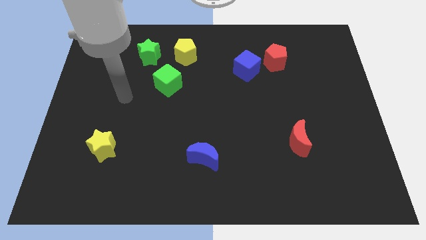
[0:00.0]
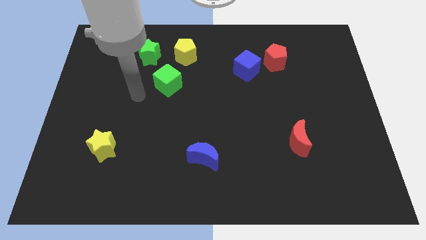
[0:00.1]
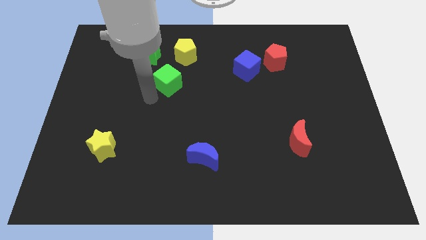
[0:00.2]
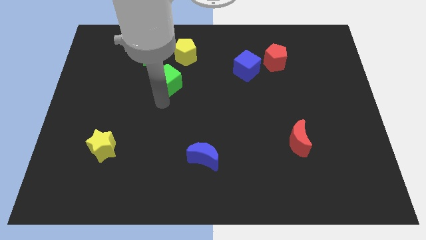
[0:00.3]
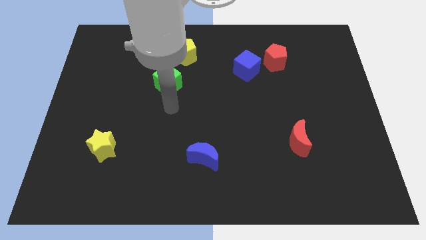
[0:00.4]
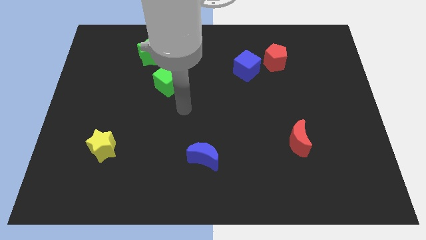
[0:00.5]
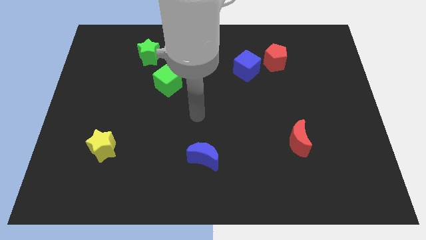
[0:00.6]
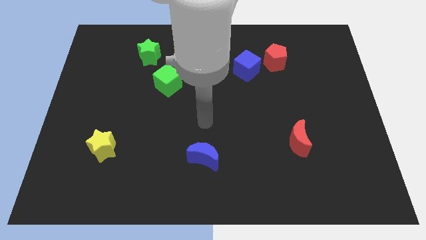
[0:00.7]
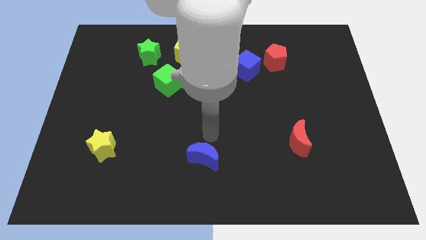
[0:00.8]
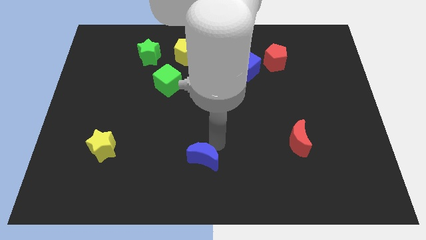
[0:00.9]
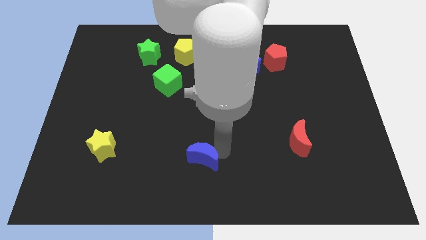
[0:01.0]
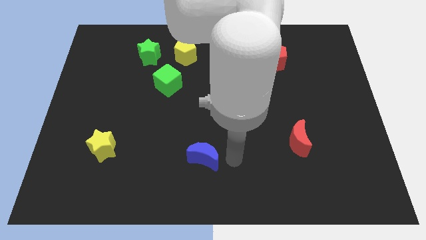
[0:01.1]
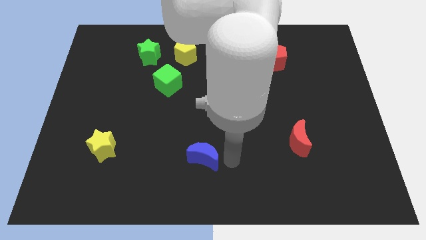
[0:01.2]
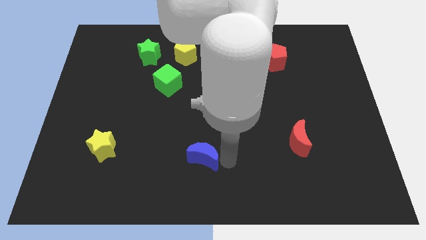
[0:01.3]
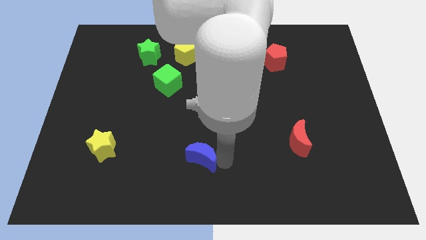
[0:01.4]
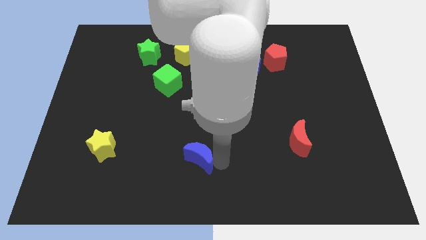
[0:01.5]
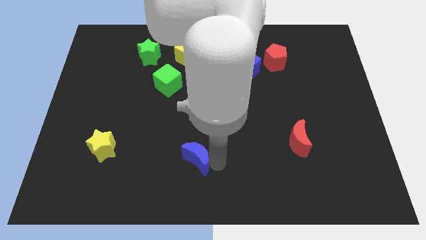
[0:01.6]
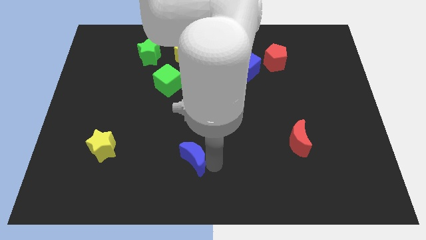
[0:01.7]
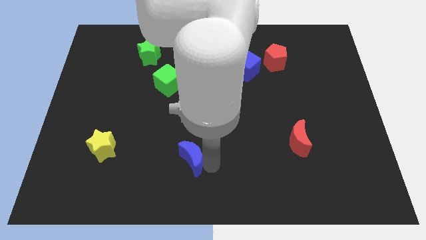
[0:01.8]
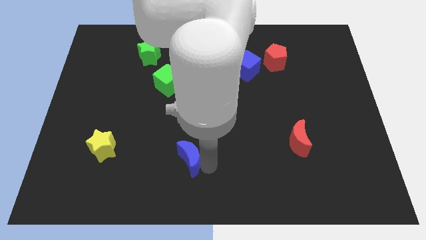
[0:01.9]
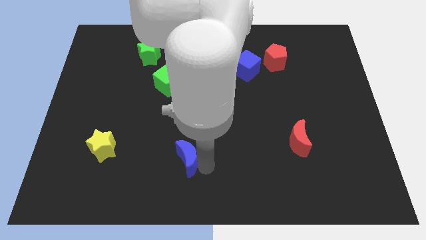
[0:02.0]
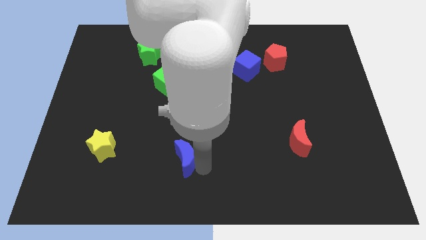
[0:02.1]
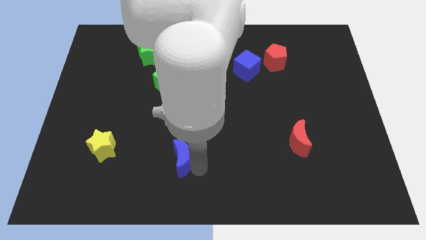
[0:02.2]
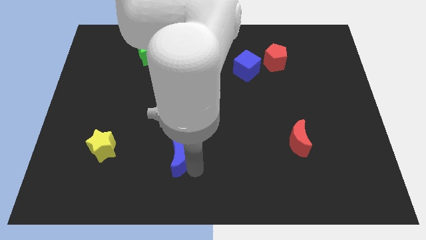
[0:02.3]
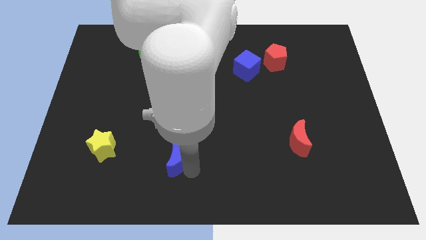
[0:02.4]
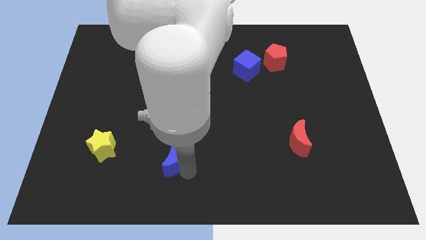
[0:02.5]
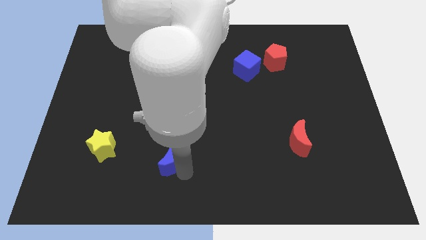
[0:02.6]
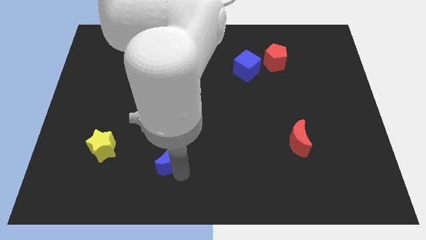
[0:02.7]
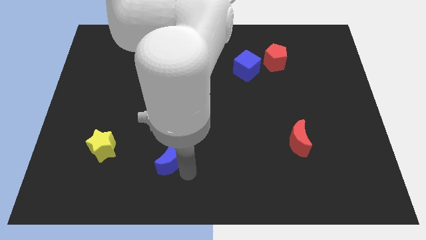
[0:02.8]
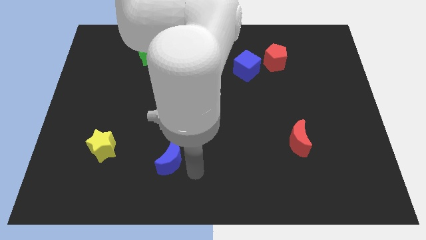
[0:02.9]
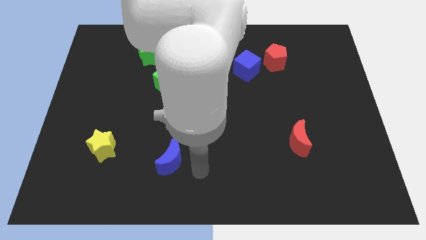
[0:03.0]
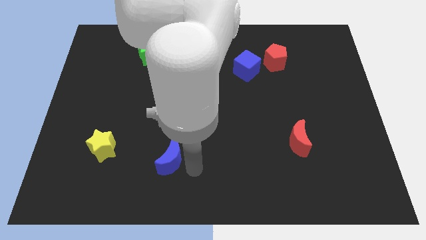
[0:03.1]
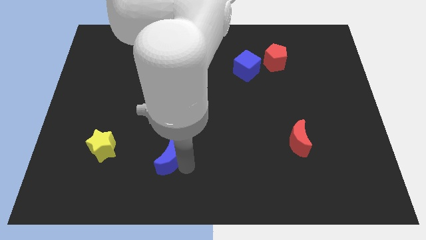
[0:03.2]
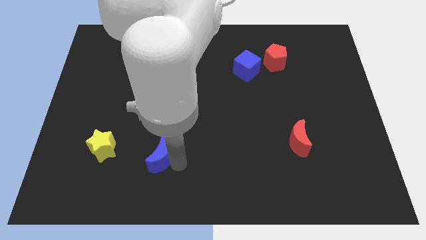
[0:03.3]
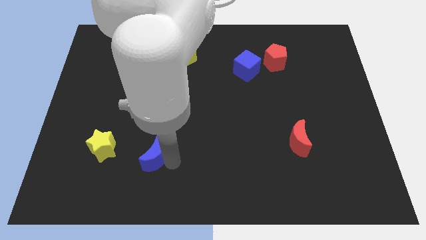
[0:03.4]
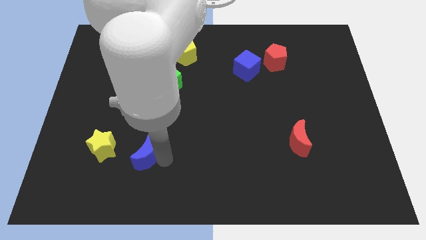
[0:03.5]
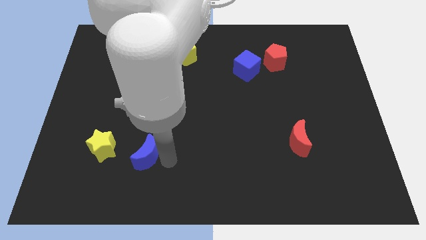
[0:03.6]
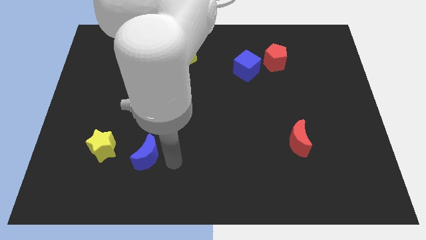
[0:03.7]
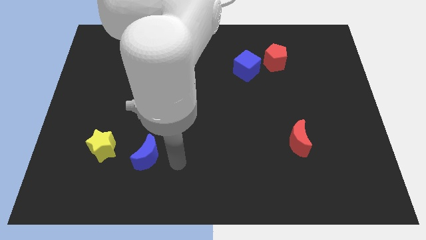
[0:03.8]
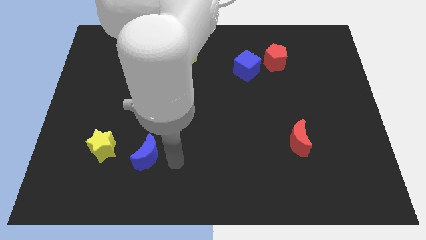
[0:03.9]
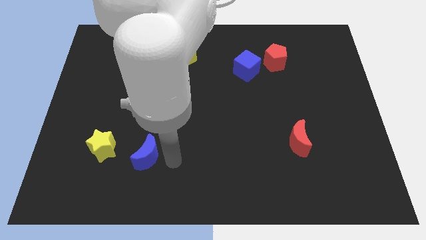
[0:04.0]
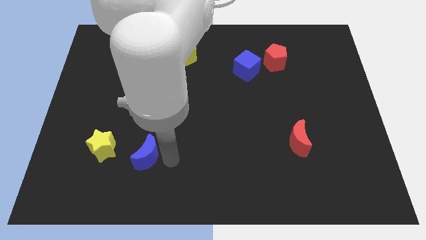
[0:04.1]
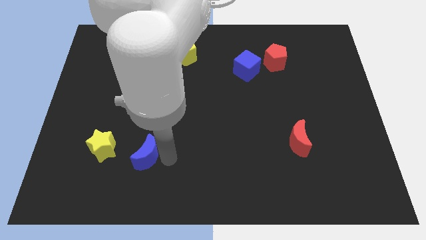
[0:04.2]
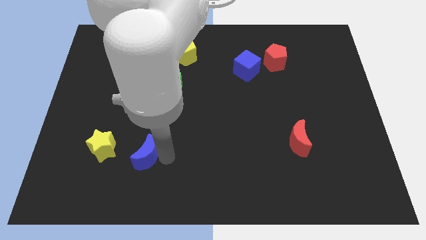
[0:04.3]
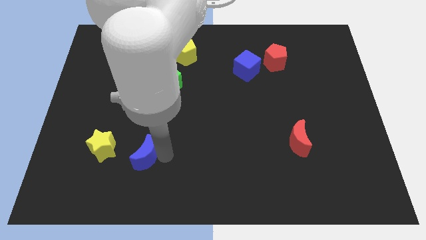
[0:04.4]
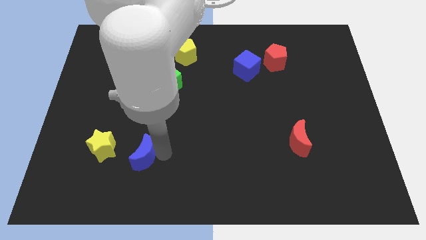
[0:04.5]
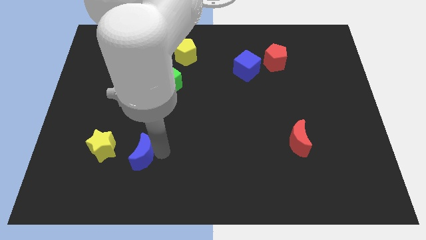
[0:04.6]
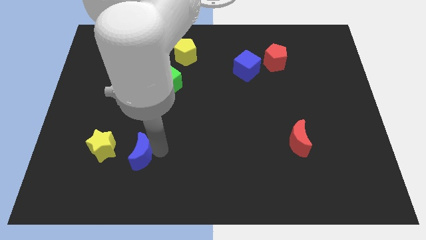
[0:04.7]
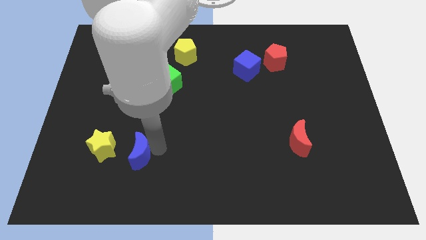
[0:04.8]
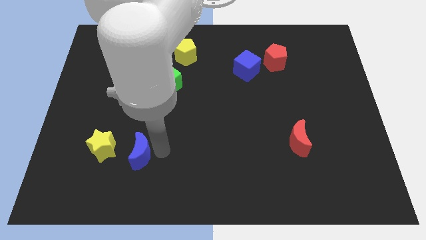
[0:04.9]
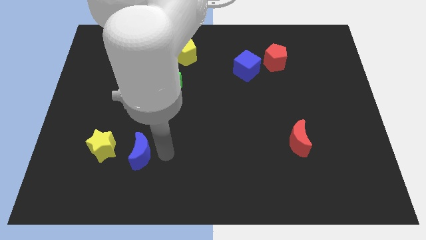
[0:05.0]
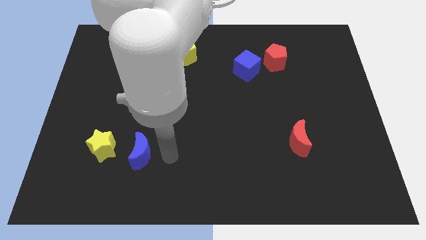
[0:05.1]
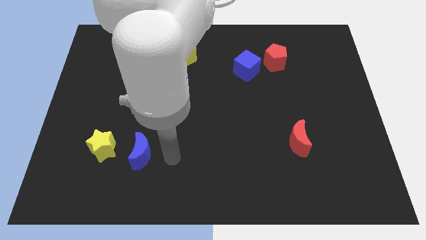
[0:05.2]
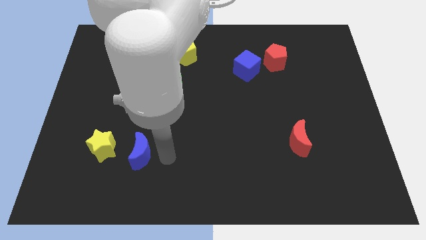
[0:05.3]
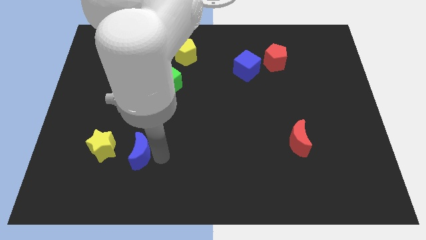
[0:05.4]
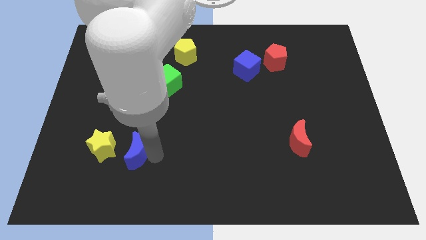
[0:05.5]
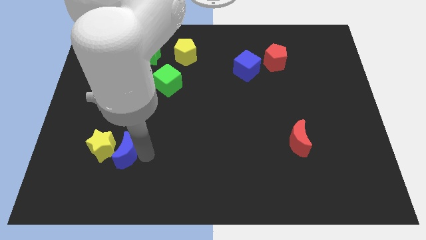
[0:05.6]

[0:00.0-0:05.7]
push the blue moon to the yellow star

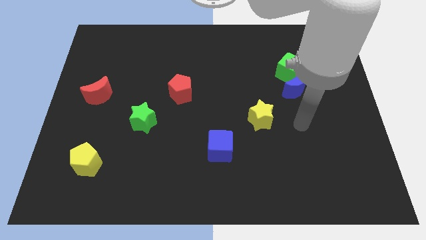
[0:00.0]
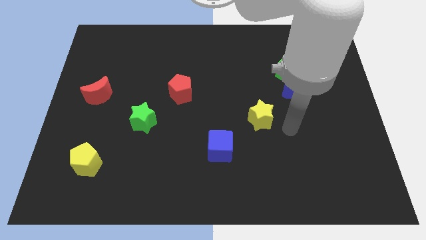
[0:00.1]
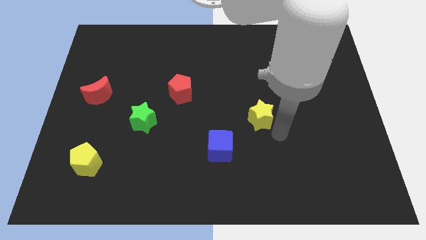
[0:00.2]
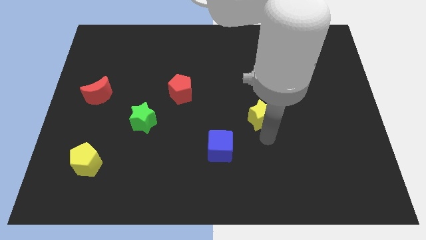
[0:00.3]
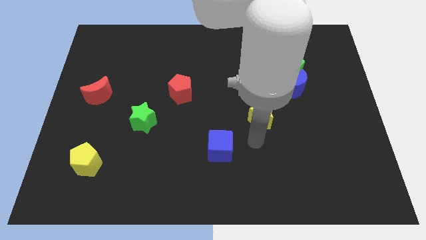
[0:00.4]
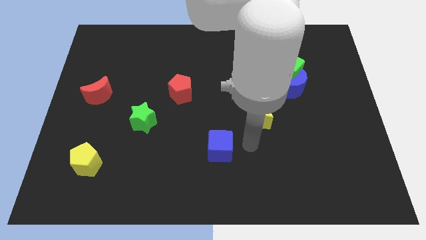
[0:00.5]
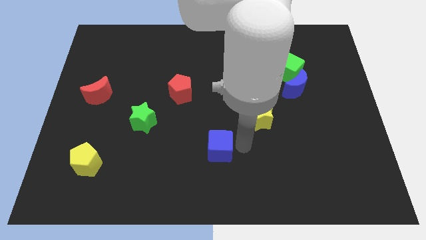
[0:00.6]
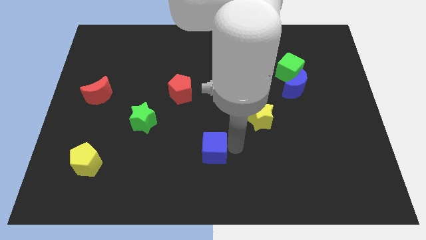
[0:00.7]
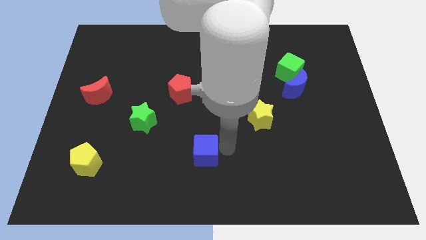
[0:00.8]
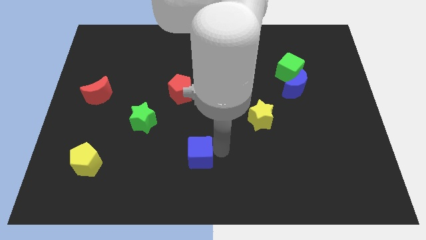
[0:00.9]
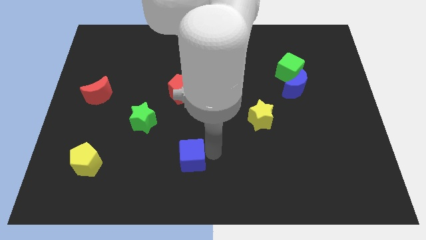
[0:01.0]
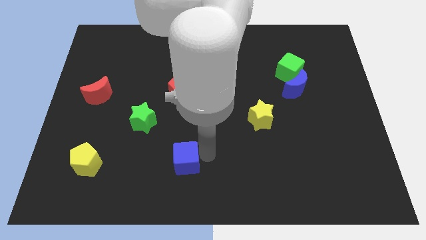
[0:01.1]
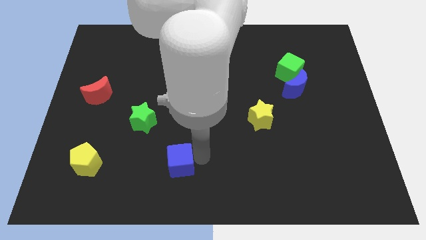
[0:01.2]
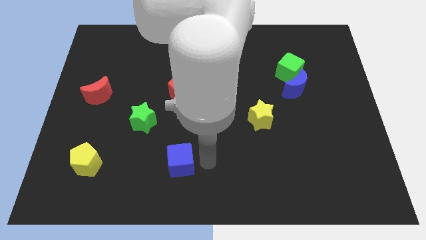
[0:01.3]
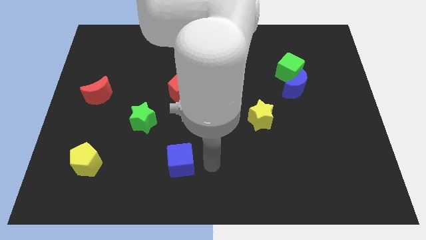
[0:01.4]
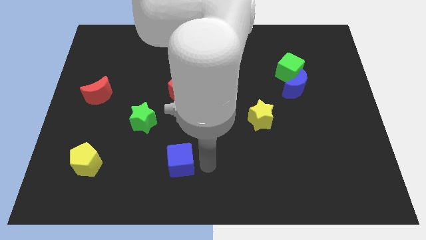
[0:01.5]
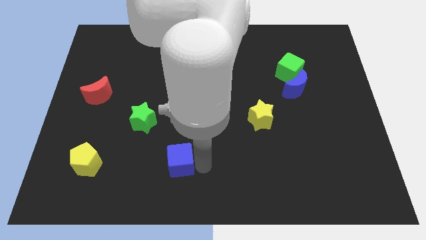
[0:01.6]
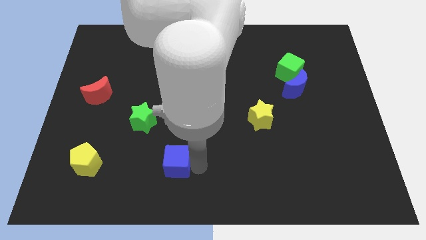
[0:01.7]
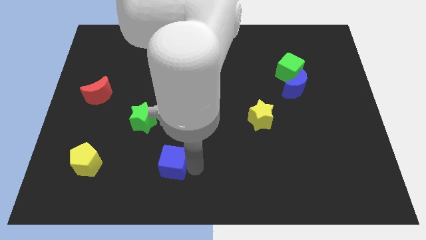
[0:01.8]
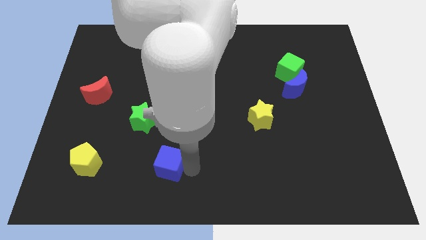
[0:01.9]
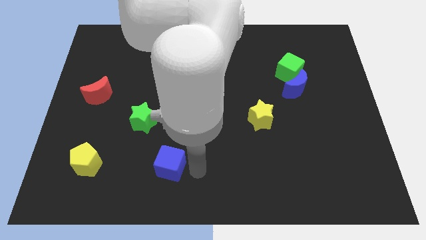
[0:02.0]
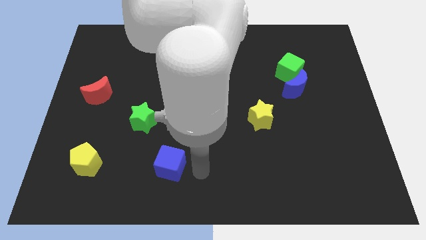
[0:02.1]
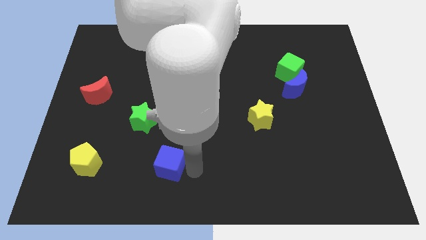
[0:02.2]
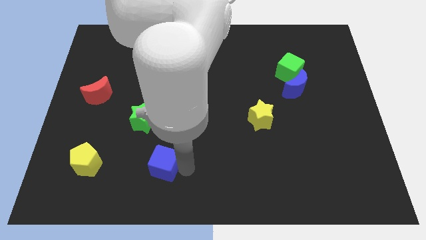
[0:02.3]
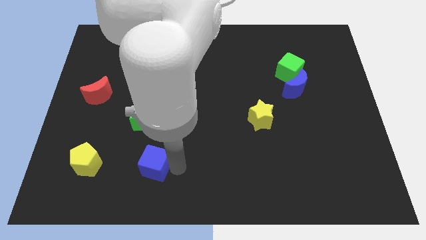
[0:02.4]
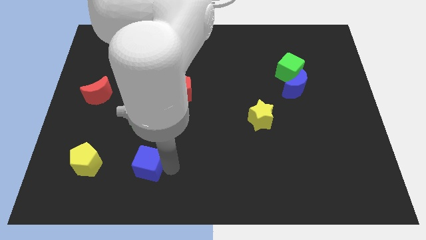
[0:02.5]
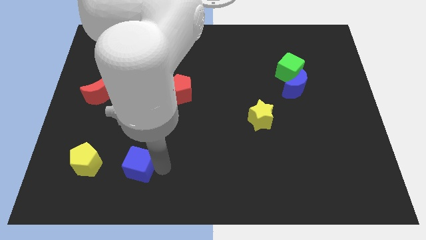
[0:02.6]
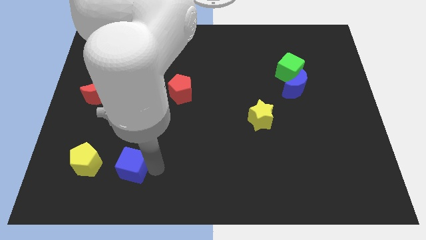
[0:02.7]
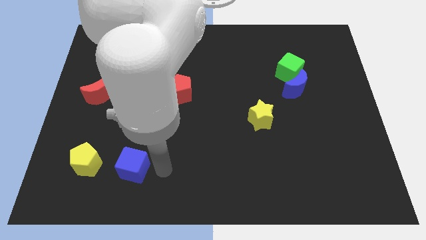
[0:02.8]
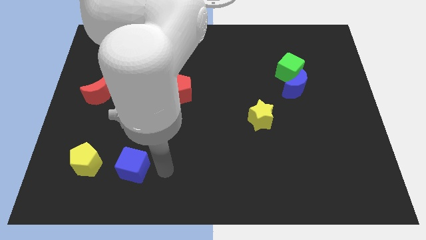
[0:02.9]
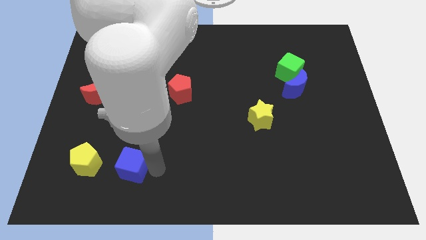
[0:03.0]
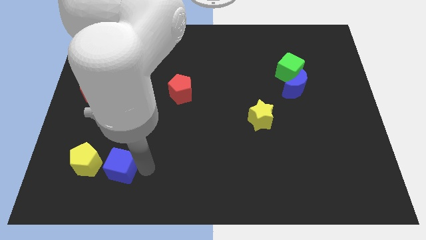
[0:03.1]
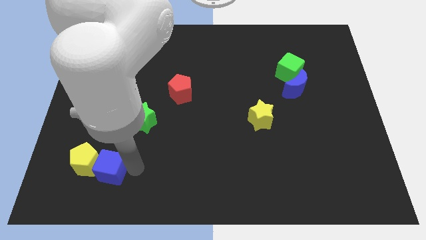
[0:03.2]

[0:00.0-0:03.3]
put the blue cube towards the yellow pentagon
